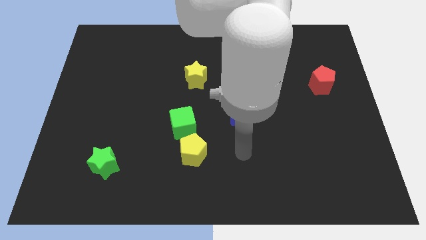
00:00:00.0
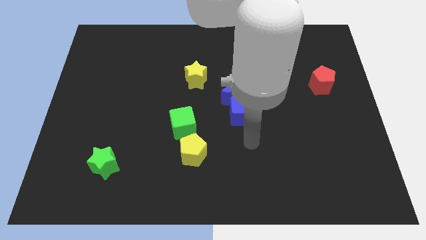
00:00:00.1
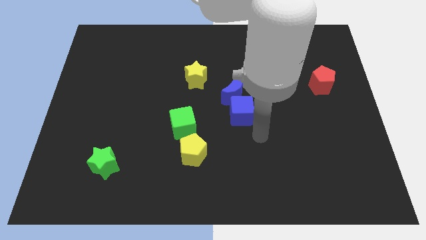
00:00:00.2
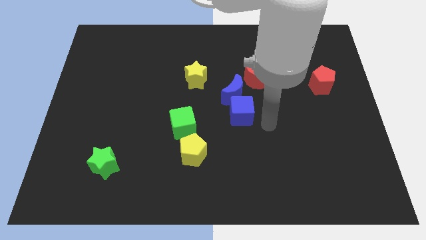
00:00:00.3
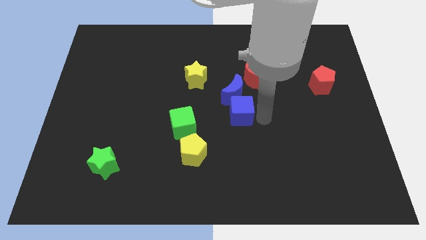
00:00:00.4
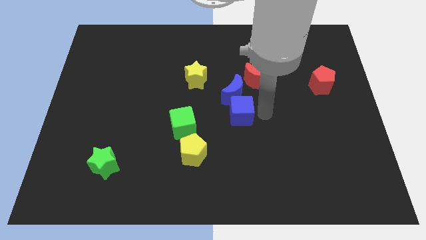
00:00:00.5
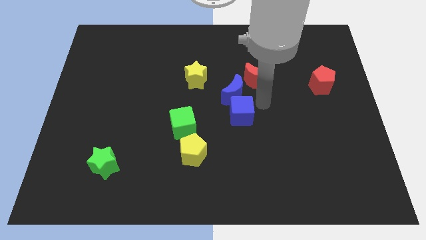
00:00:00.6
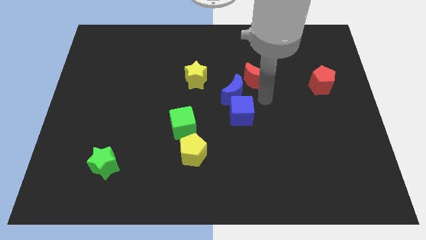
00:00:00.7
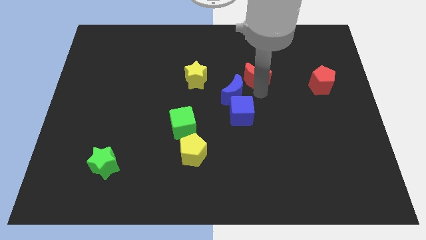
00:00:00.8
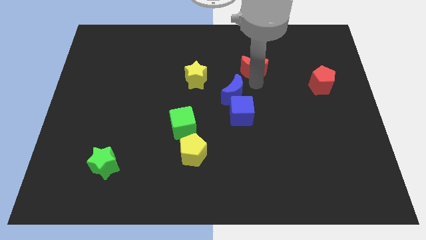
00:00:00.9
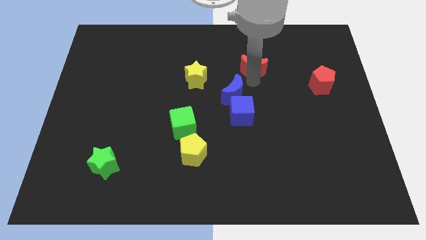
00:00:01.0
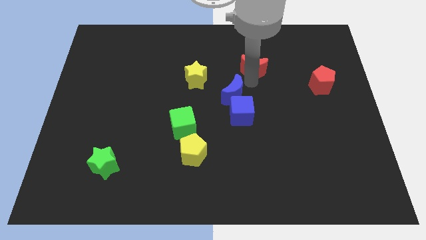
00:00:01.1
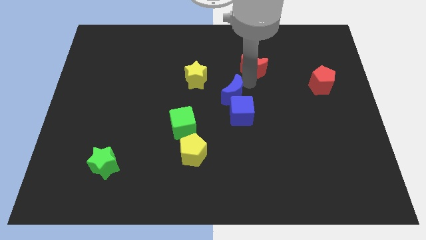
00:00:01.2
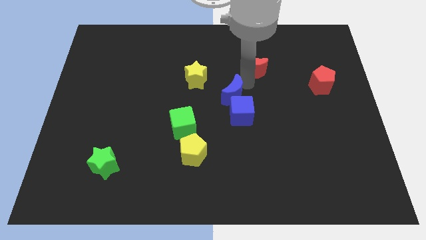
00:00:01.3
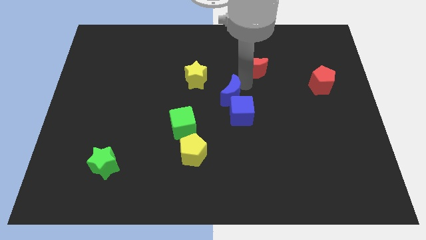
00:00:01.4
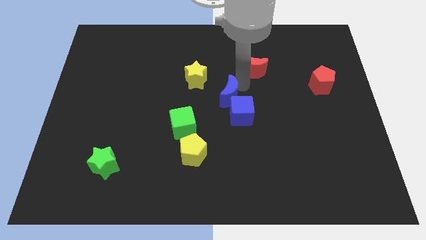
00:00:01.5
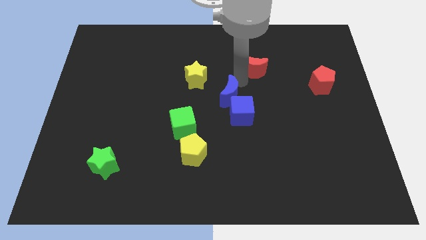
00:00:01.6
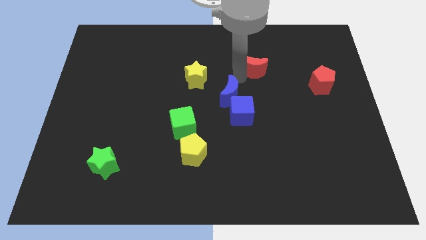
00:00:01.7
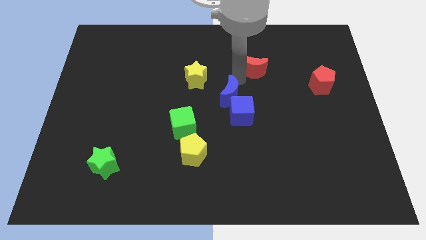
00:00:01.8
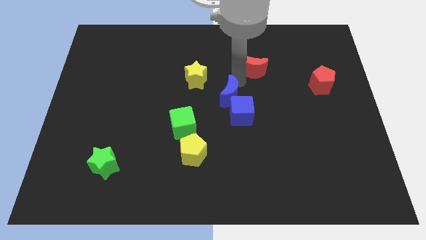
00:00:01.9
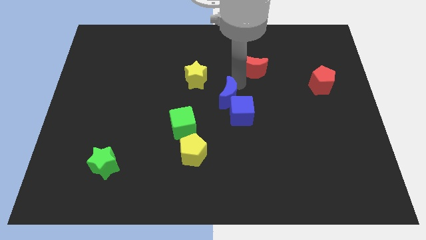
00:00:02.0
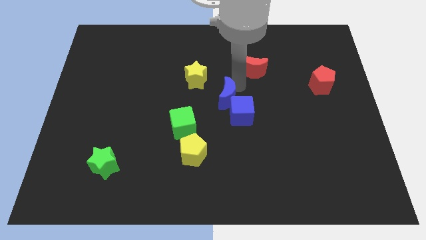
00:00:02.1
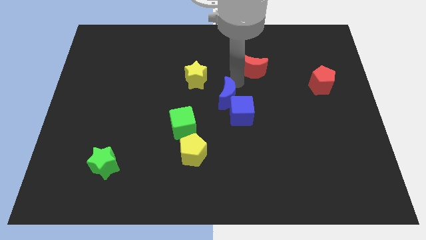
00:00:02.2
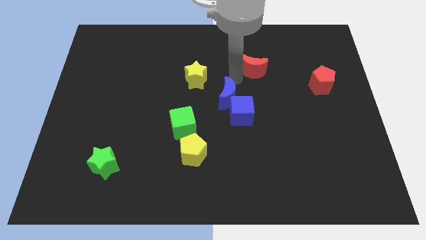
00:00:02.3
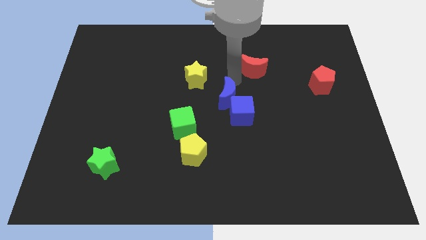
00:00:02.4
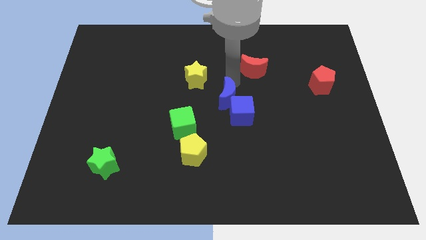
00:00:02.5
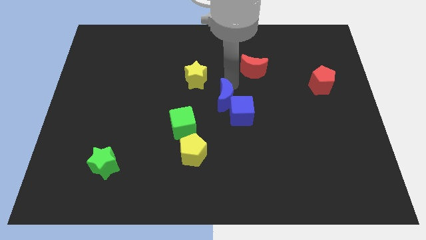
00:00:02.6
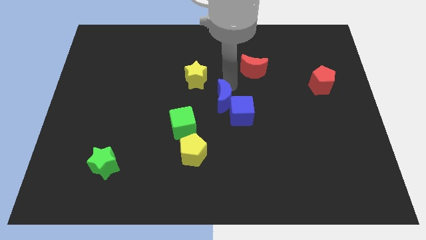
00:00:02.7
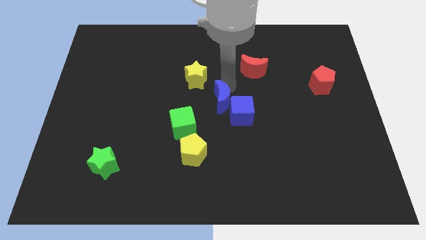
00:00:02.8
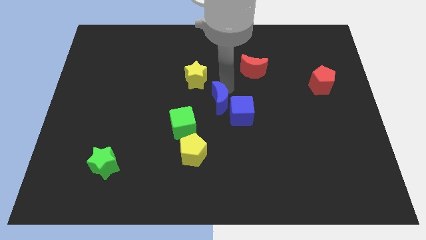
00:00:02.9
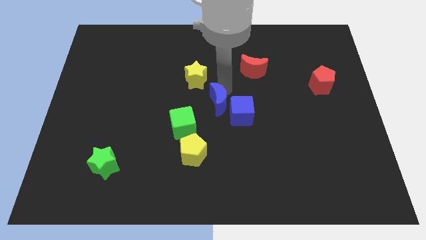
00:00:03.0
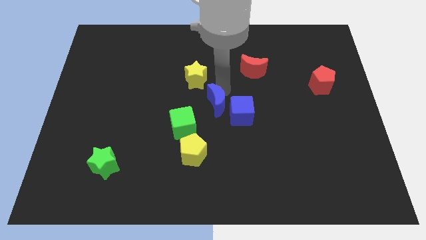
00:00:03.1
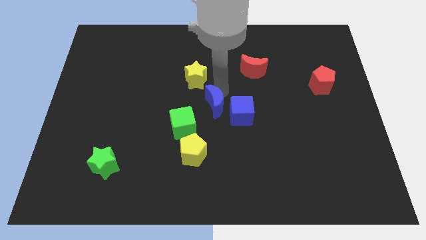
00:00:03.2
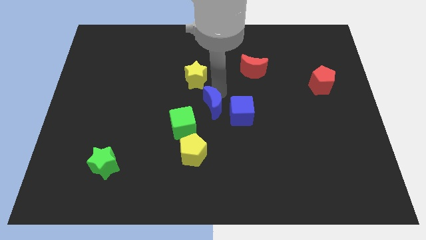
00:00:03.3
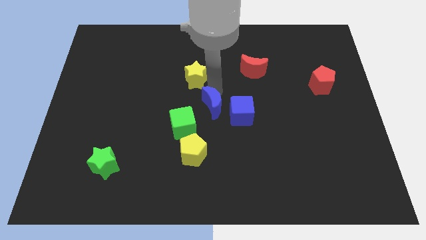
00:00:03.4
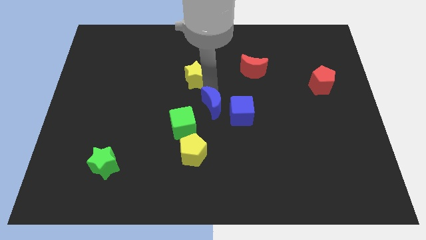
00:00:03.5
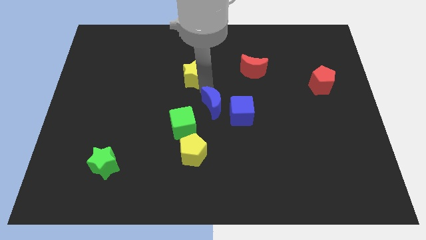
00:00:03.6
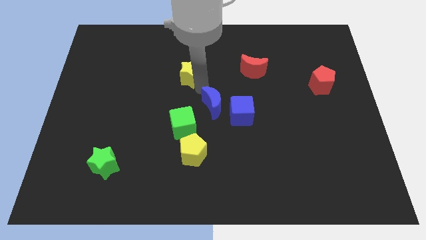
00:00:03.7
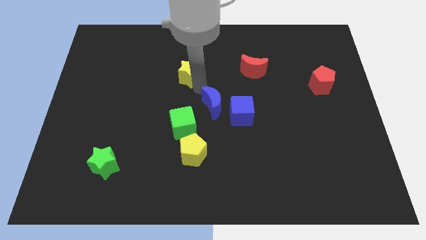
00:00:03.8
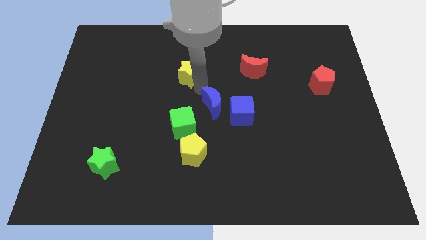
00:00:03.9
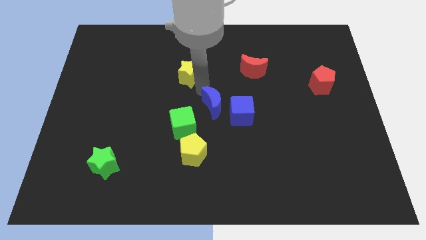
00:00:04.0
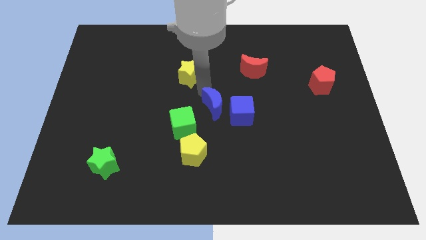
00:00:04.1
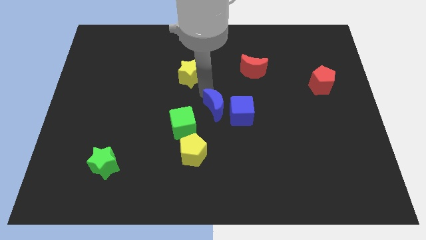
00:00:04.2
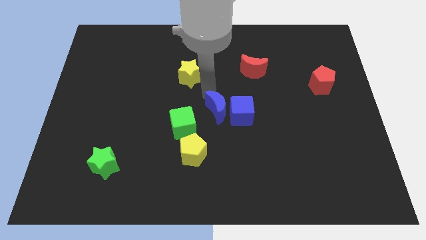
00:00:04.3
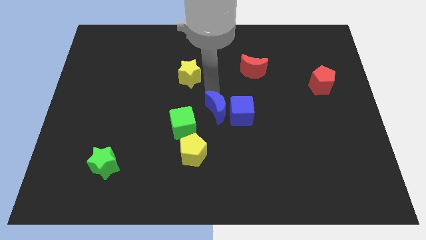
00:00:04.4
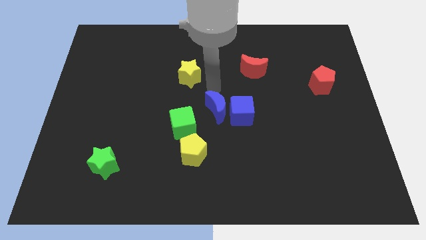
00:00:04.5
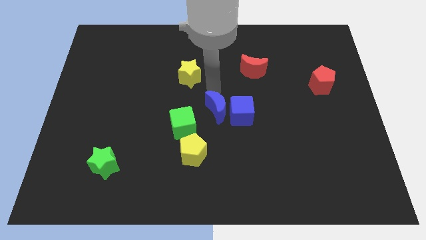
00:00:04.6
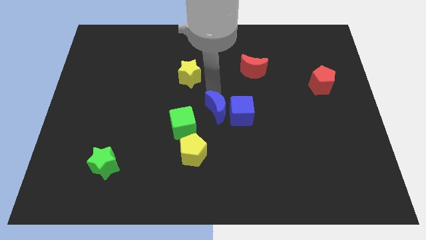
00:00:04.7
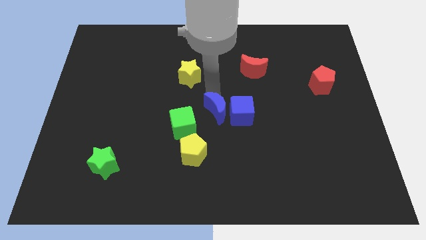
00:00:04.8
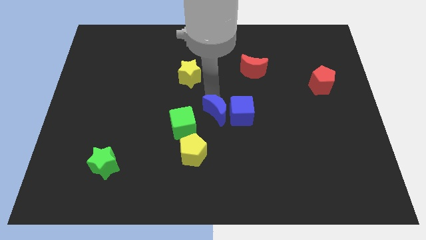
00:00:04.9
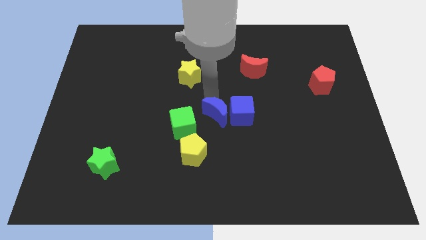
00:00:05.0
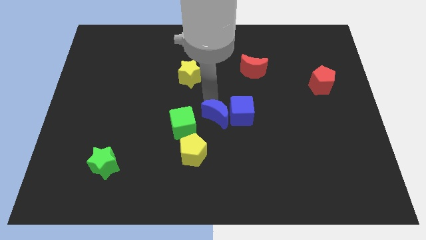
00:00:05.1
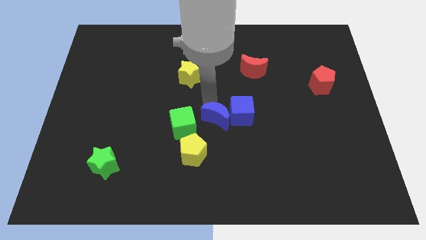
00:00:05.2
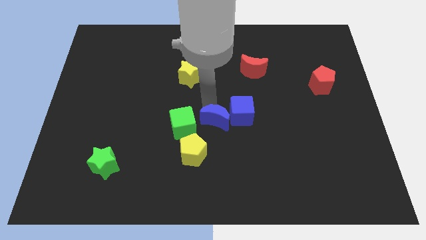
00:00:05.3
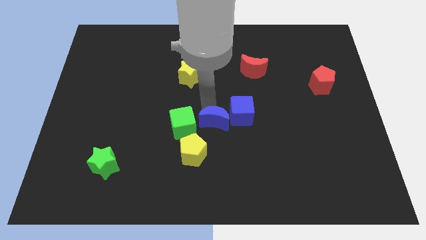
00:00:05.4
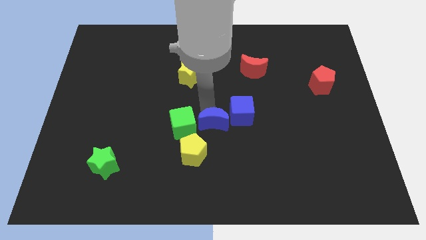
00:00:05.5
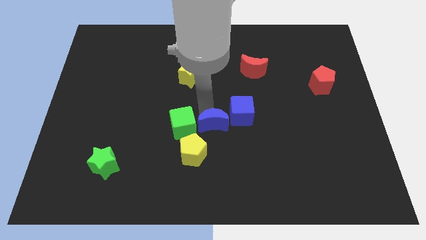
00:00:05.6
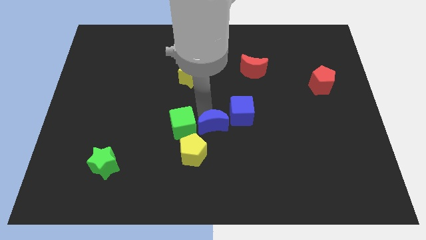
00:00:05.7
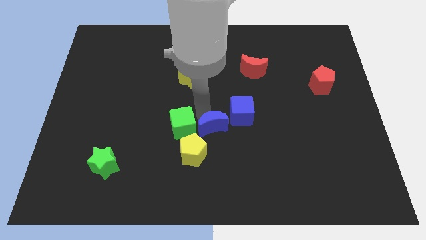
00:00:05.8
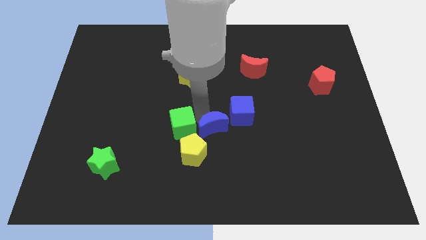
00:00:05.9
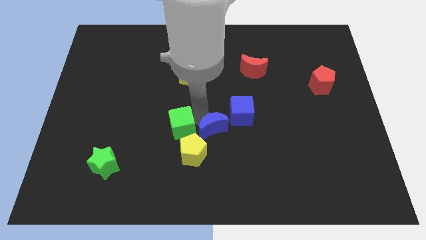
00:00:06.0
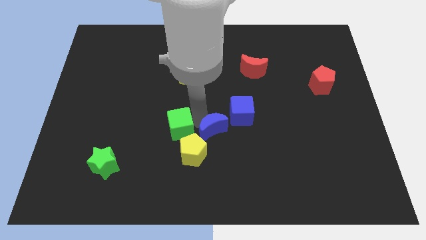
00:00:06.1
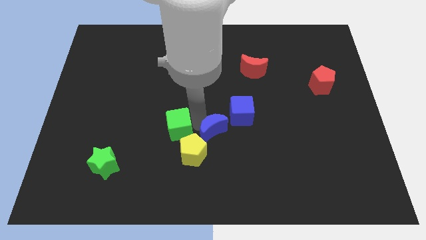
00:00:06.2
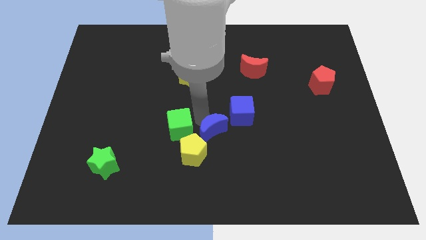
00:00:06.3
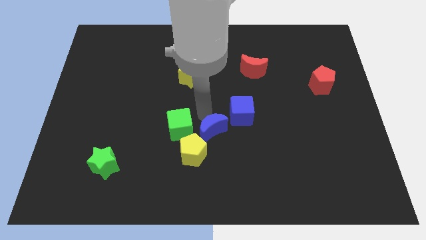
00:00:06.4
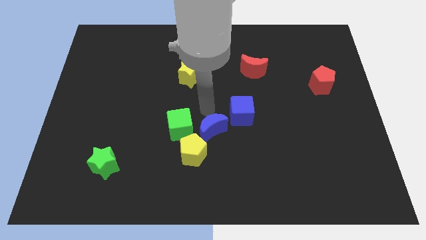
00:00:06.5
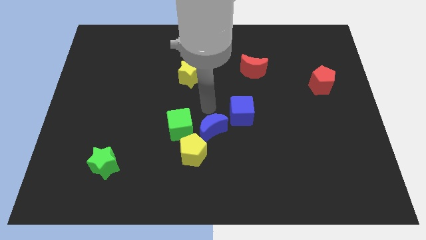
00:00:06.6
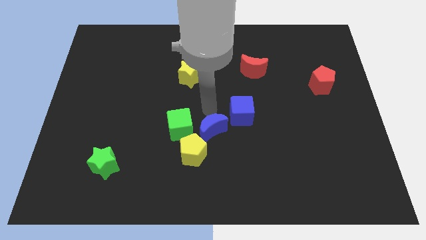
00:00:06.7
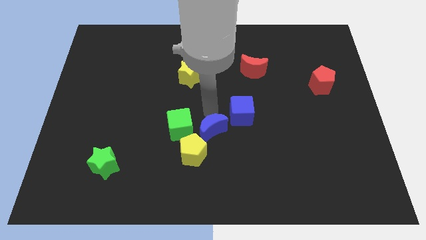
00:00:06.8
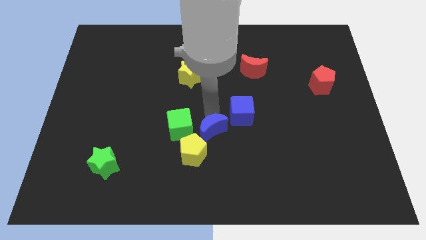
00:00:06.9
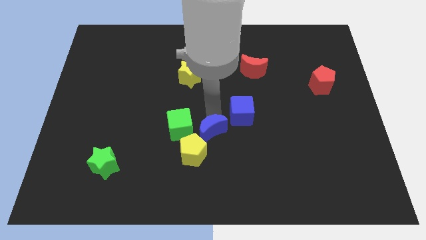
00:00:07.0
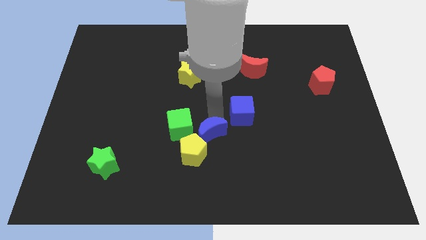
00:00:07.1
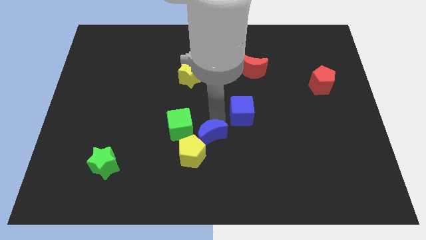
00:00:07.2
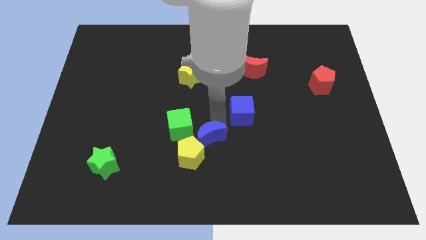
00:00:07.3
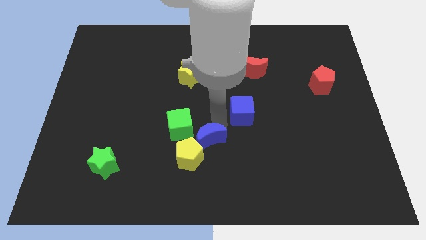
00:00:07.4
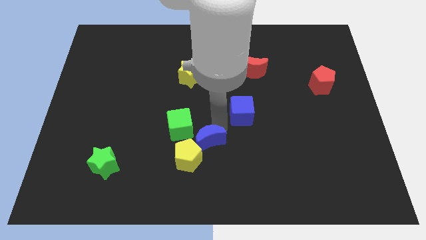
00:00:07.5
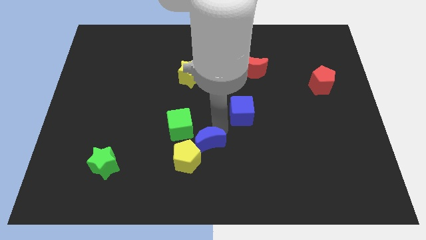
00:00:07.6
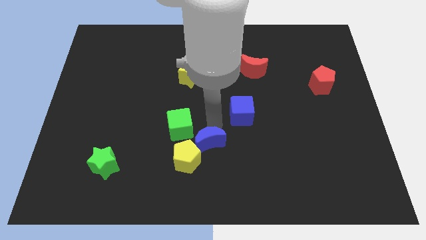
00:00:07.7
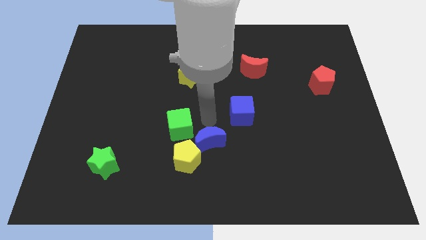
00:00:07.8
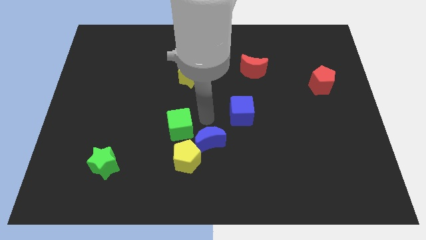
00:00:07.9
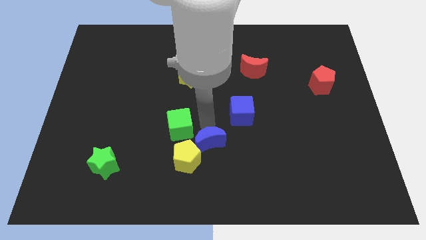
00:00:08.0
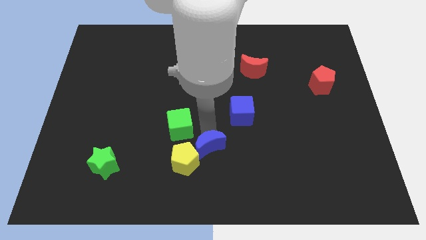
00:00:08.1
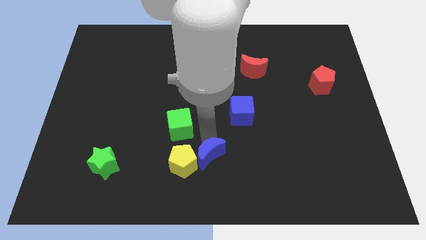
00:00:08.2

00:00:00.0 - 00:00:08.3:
slide the blue moon to the bottom side
